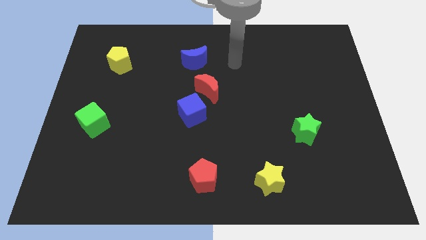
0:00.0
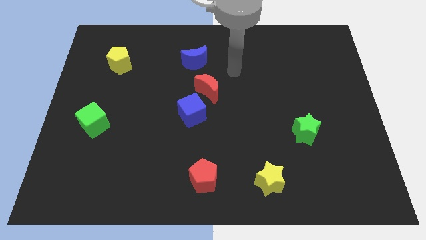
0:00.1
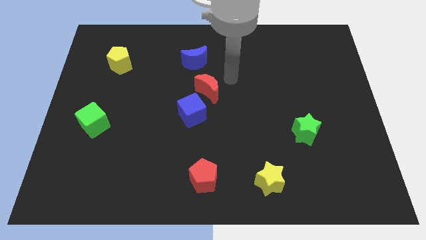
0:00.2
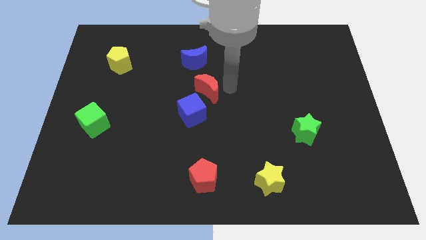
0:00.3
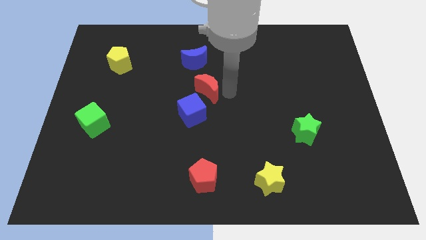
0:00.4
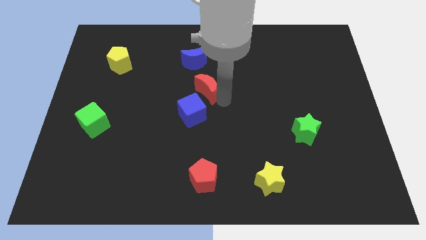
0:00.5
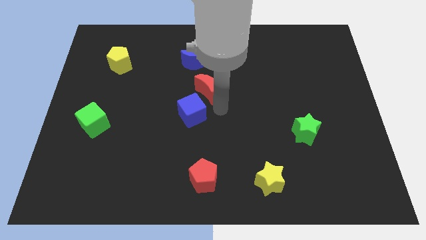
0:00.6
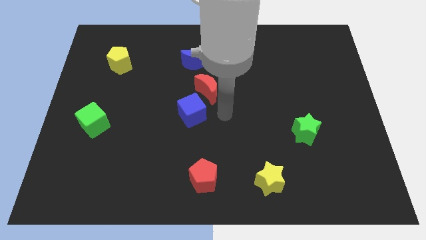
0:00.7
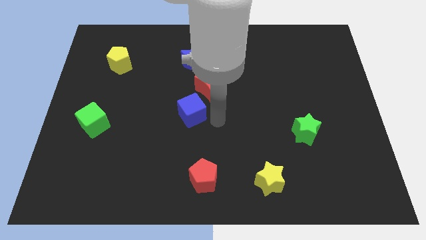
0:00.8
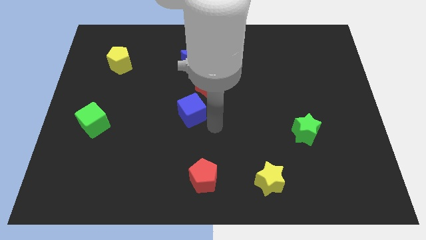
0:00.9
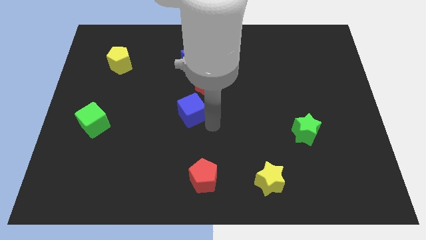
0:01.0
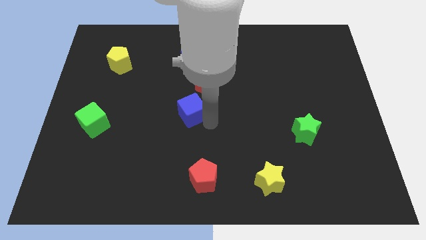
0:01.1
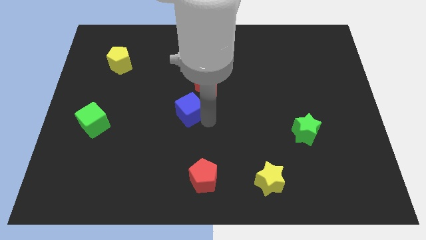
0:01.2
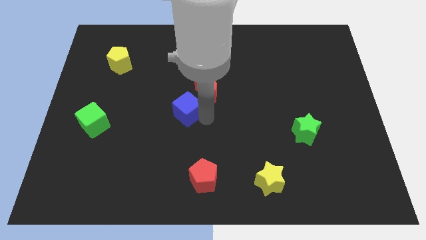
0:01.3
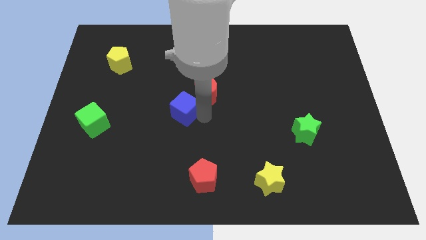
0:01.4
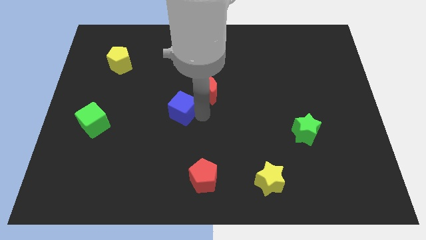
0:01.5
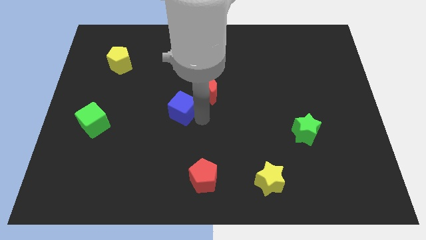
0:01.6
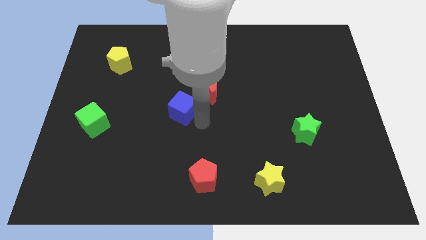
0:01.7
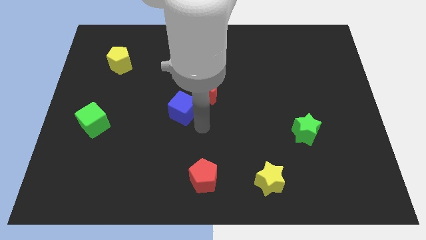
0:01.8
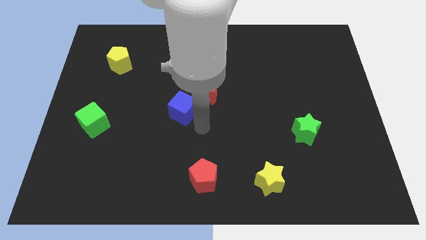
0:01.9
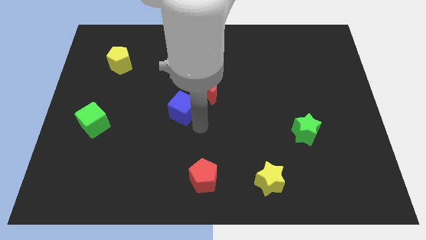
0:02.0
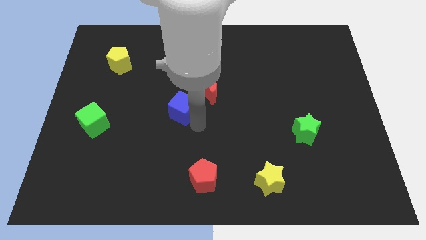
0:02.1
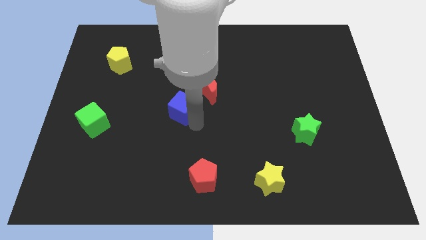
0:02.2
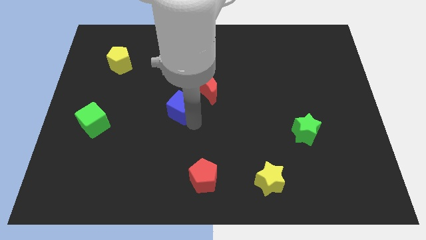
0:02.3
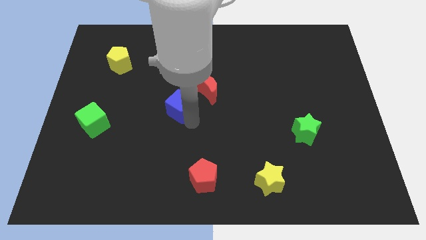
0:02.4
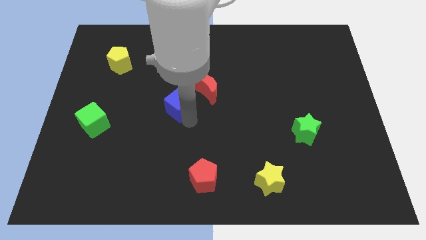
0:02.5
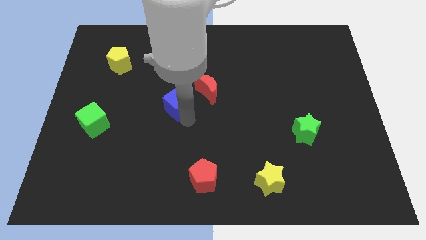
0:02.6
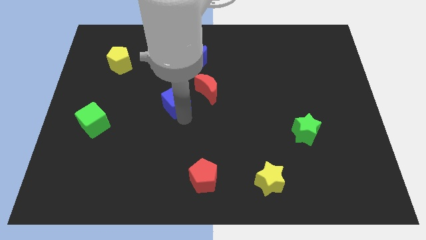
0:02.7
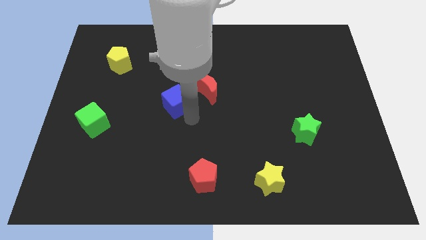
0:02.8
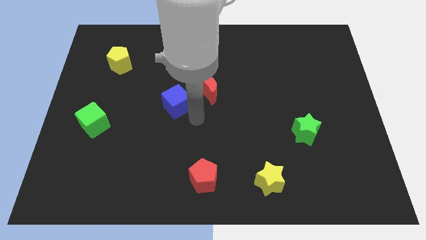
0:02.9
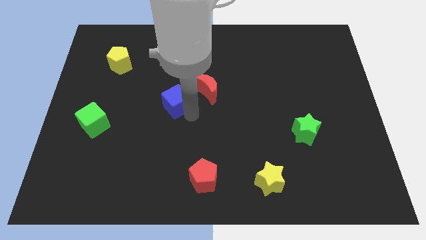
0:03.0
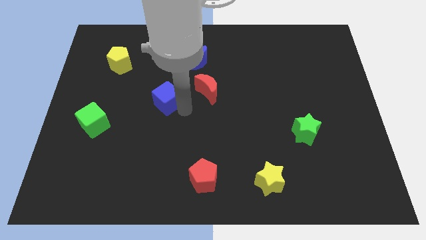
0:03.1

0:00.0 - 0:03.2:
slide the blue cube a little upwards and left diagonally

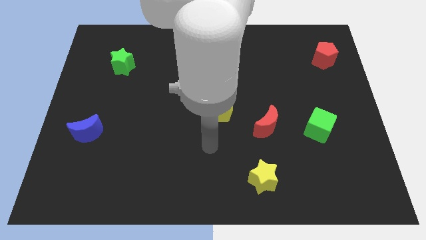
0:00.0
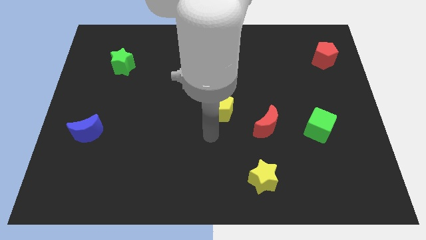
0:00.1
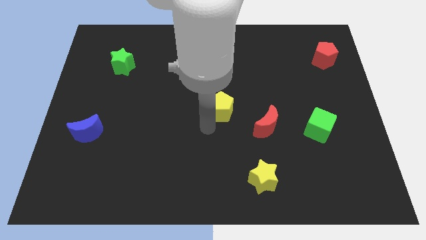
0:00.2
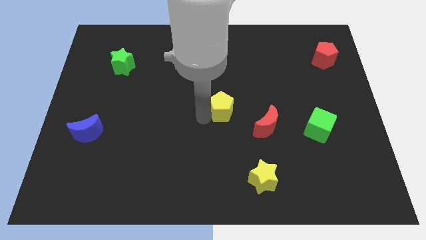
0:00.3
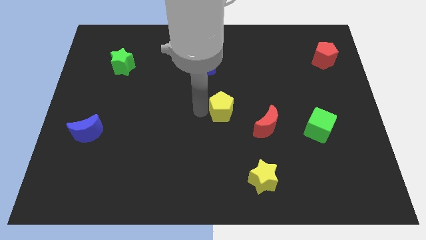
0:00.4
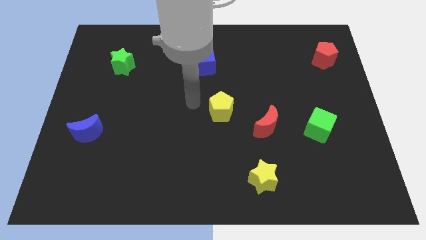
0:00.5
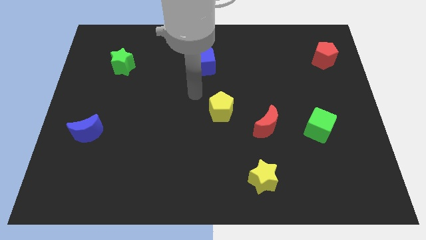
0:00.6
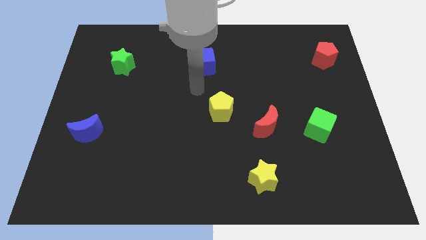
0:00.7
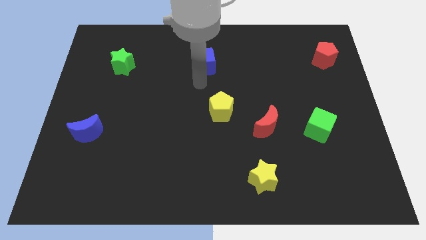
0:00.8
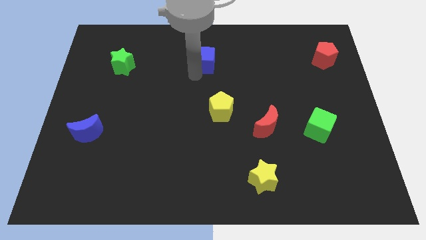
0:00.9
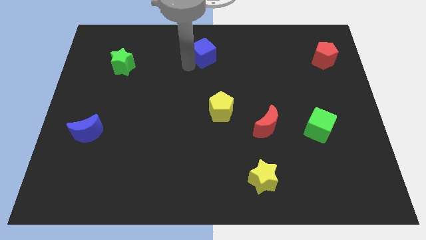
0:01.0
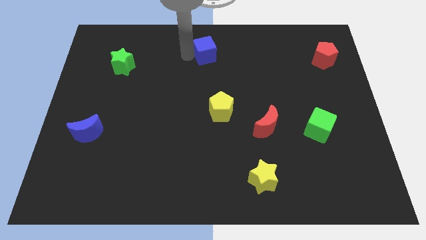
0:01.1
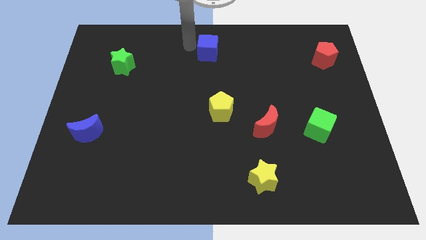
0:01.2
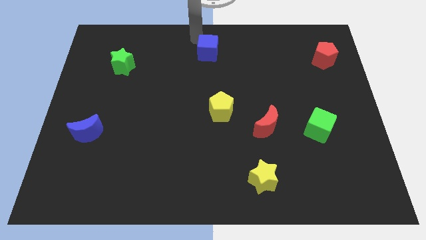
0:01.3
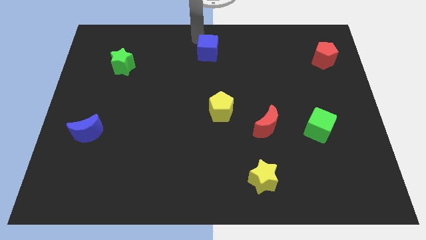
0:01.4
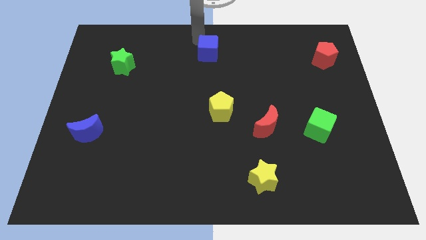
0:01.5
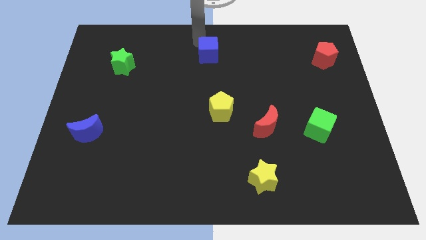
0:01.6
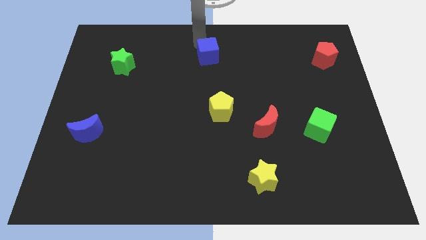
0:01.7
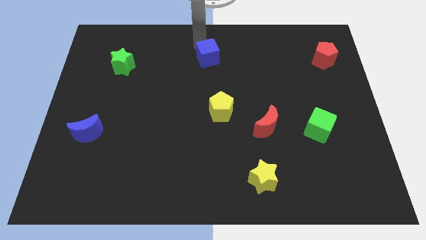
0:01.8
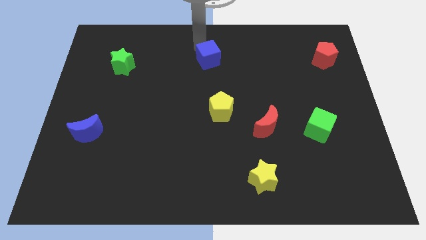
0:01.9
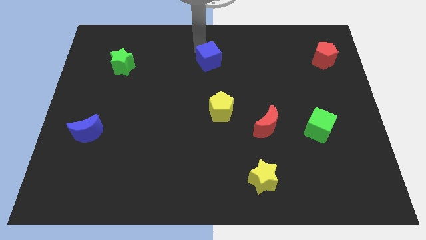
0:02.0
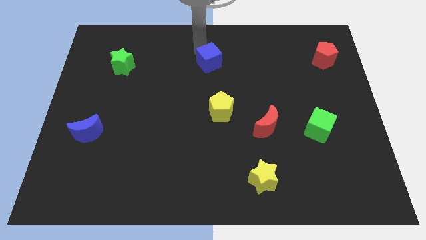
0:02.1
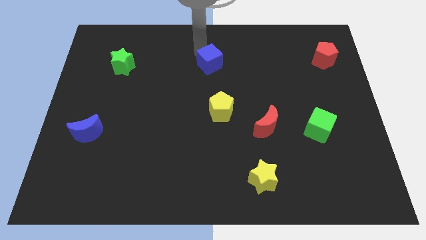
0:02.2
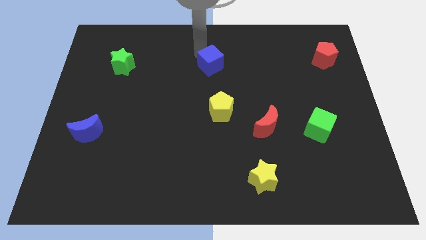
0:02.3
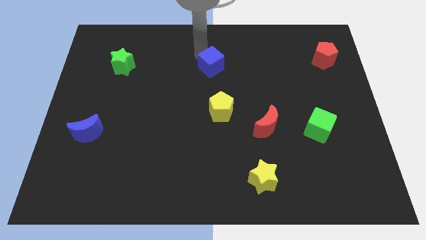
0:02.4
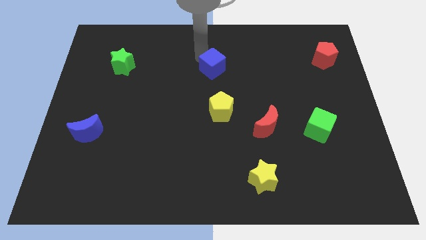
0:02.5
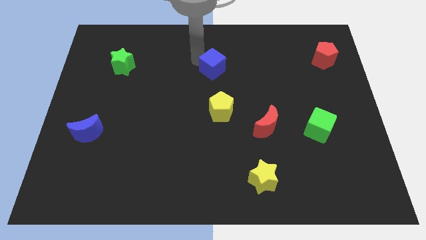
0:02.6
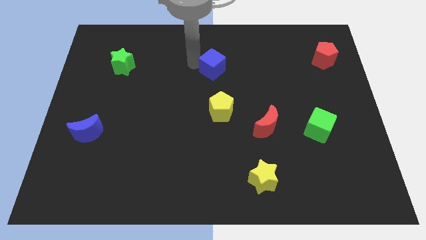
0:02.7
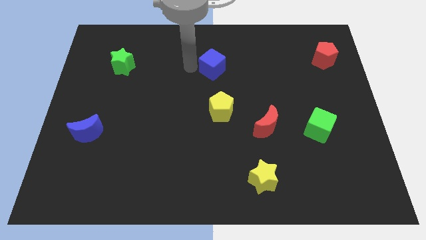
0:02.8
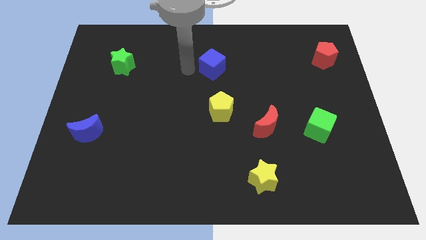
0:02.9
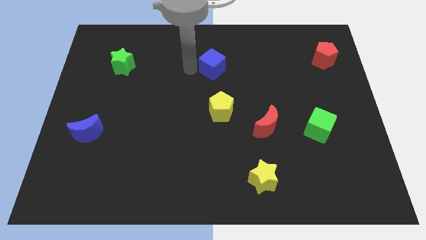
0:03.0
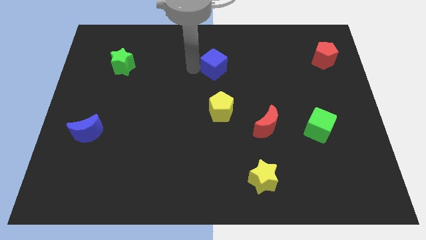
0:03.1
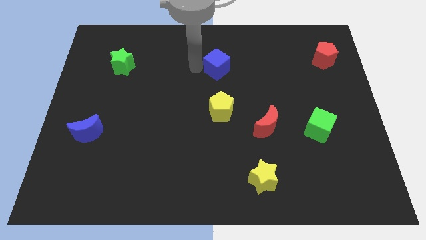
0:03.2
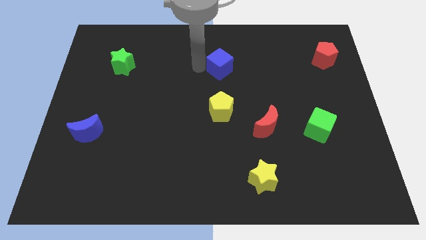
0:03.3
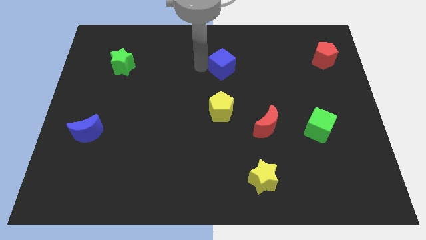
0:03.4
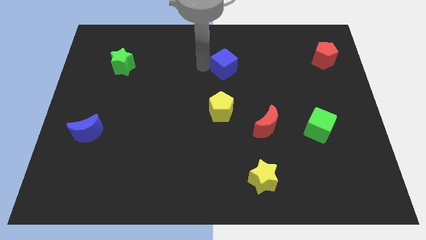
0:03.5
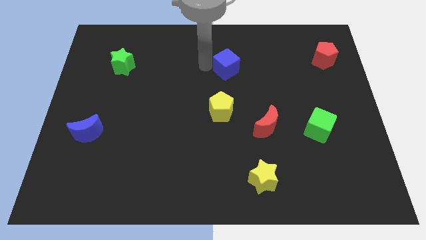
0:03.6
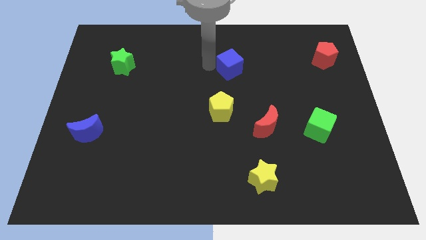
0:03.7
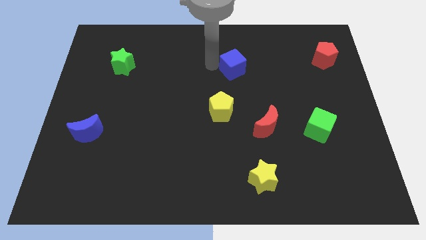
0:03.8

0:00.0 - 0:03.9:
move the blue cube to the right slightly

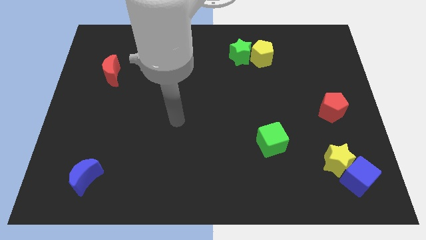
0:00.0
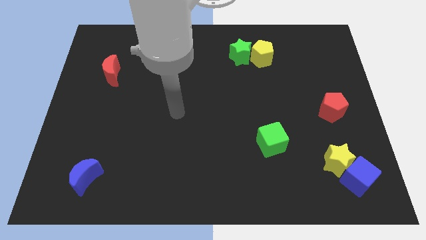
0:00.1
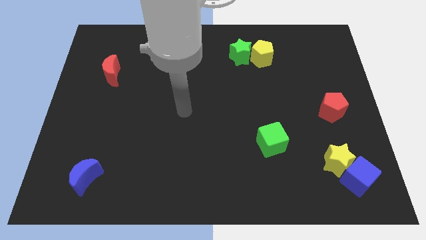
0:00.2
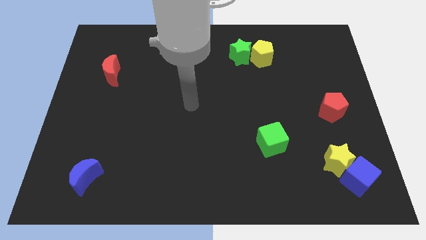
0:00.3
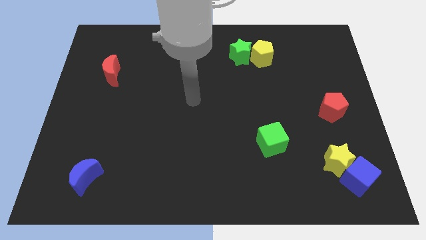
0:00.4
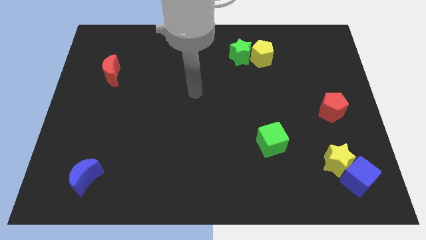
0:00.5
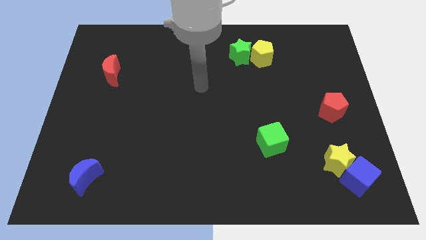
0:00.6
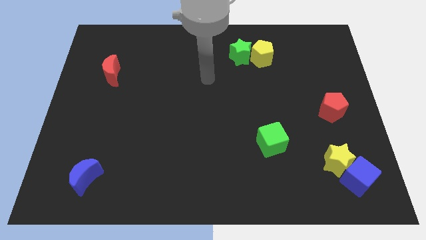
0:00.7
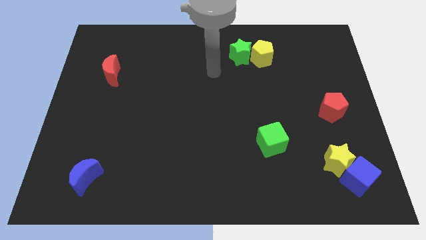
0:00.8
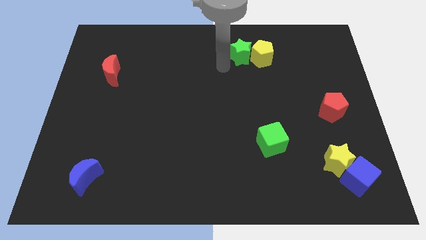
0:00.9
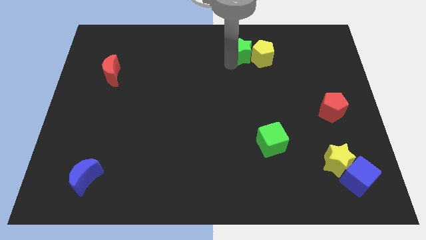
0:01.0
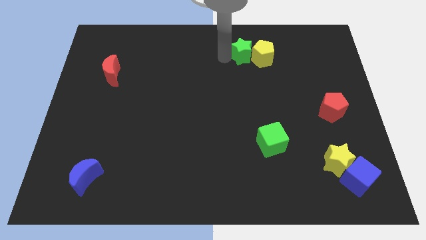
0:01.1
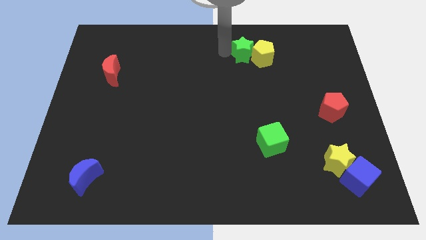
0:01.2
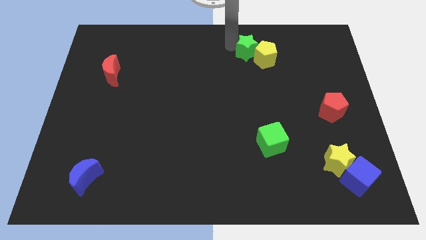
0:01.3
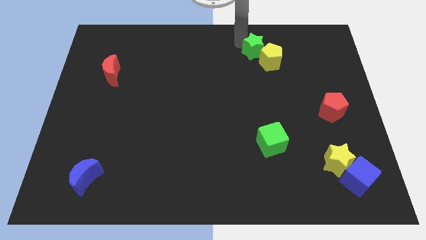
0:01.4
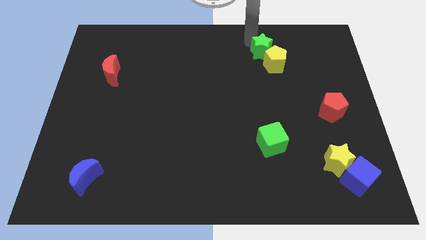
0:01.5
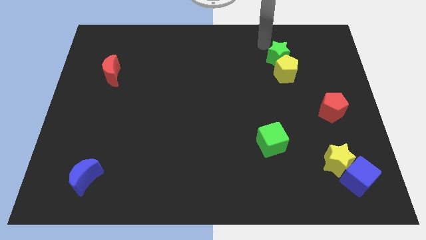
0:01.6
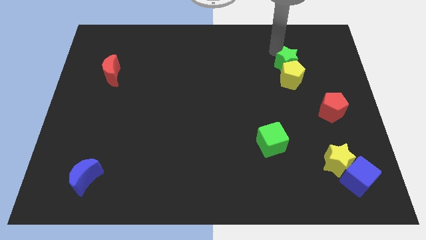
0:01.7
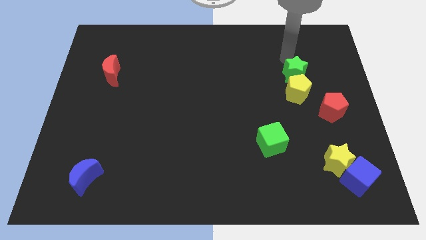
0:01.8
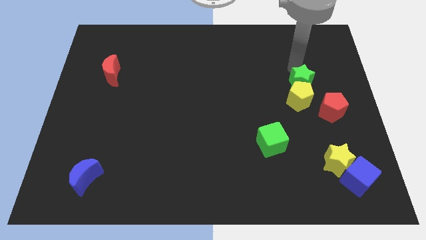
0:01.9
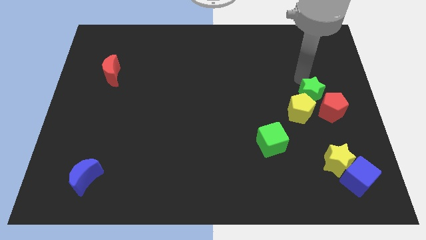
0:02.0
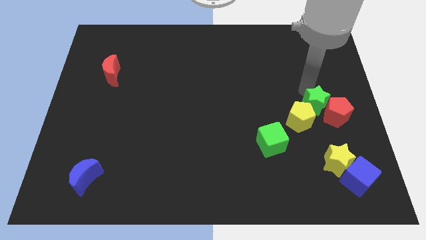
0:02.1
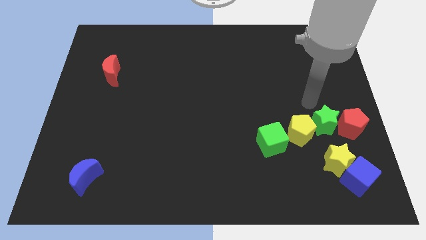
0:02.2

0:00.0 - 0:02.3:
move the yellow pentagon downwards
